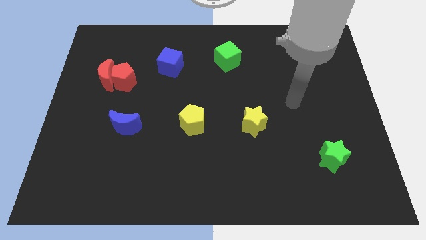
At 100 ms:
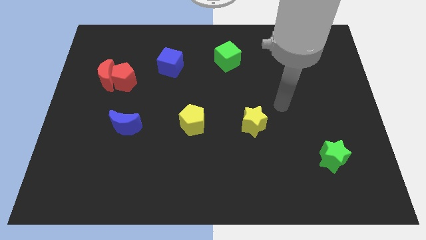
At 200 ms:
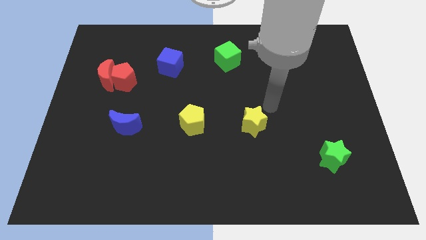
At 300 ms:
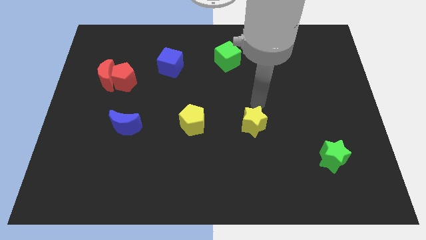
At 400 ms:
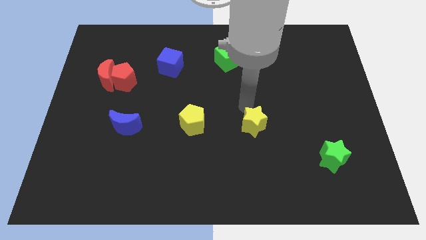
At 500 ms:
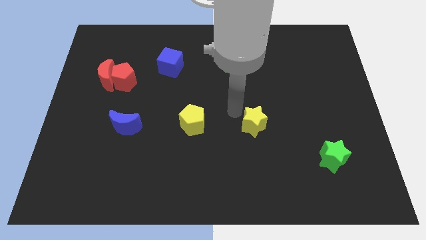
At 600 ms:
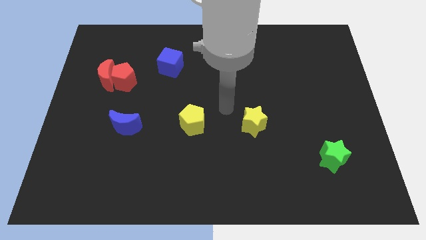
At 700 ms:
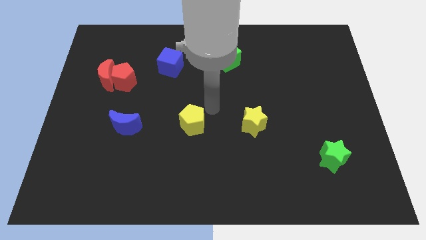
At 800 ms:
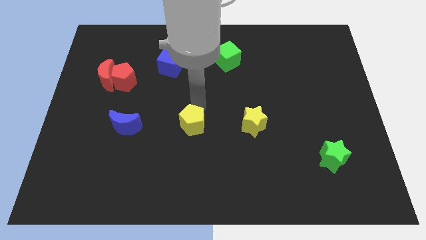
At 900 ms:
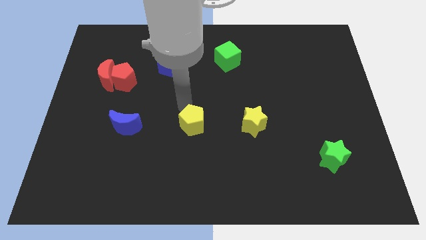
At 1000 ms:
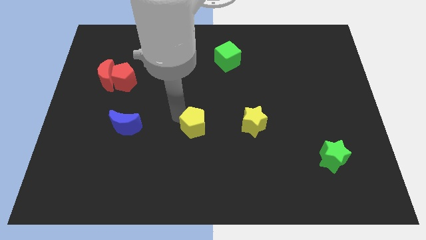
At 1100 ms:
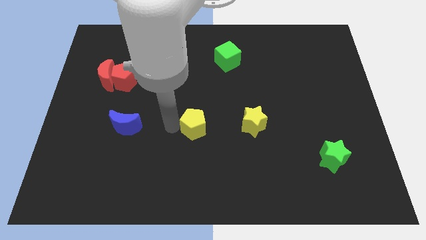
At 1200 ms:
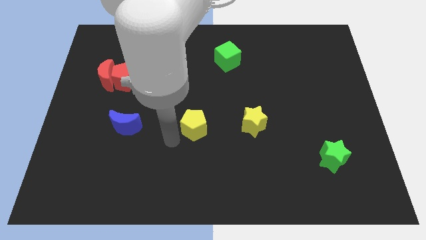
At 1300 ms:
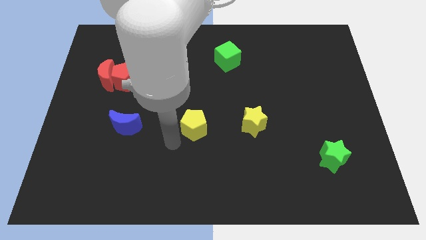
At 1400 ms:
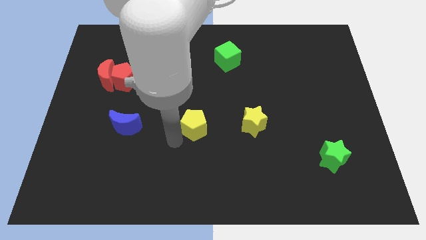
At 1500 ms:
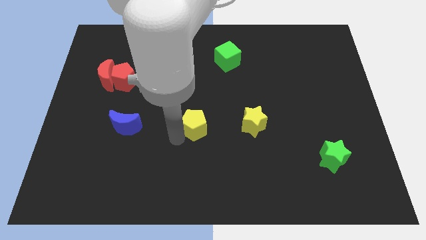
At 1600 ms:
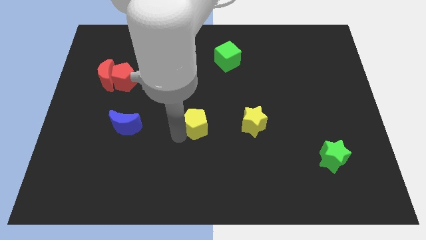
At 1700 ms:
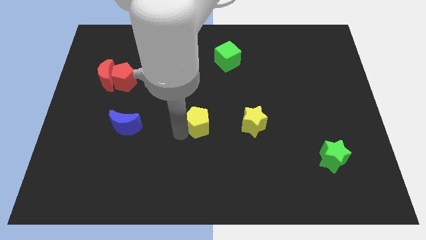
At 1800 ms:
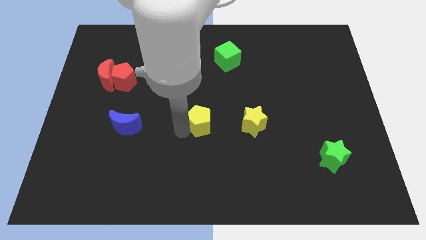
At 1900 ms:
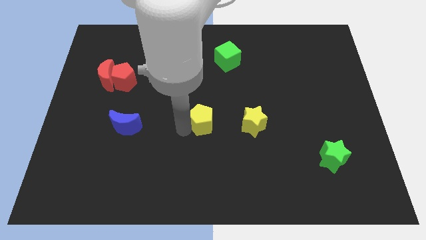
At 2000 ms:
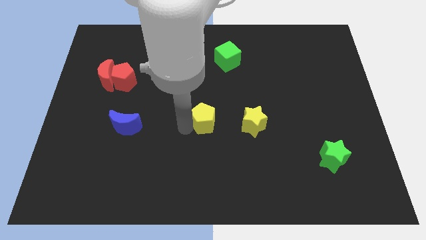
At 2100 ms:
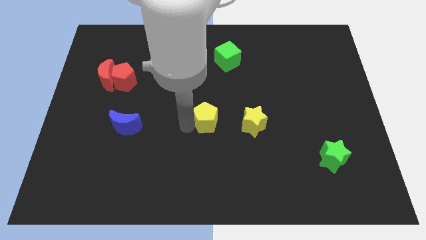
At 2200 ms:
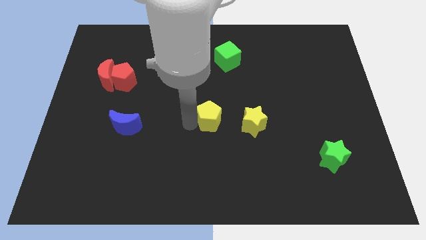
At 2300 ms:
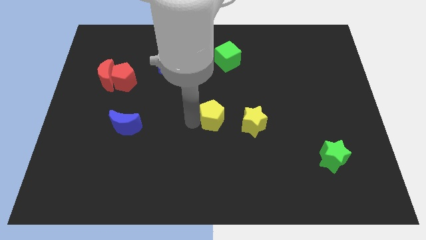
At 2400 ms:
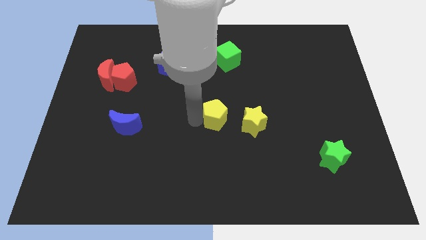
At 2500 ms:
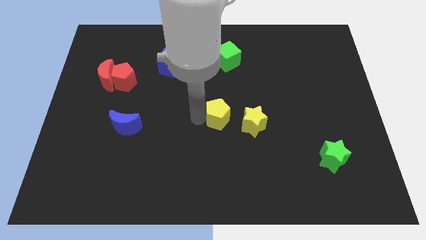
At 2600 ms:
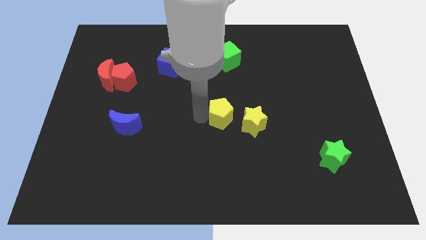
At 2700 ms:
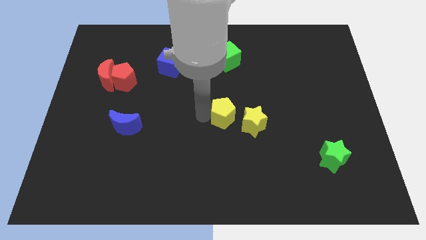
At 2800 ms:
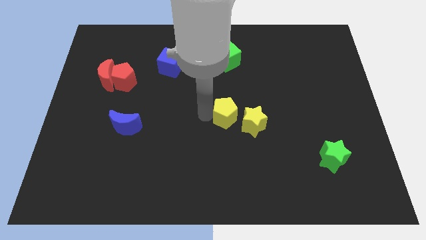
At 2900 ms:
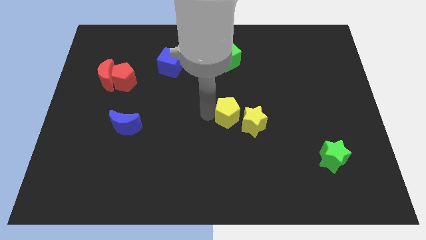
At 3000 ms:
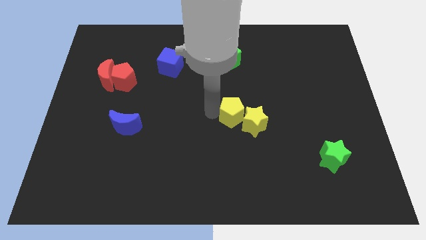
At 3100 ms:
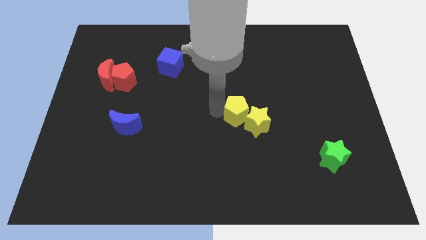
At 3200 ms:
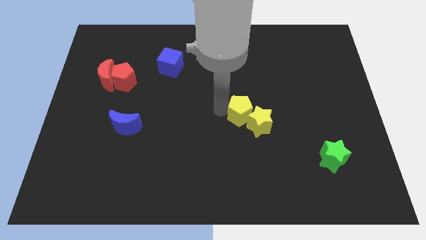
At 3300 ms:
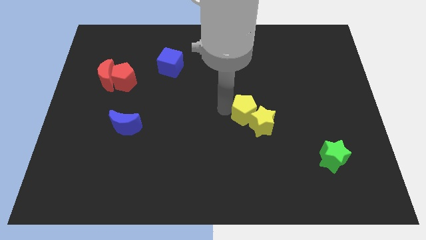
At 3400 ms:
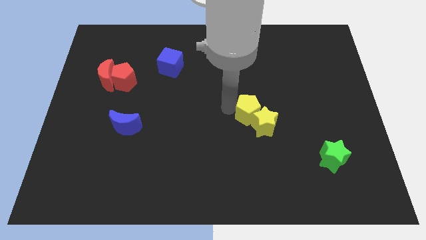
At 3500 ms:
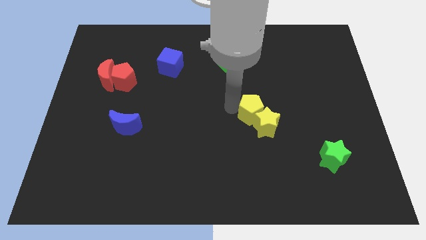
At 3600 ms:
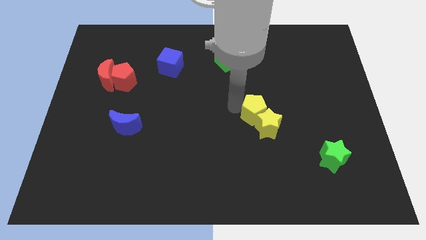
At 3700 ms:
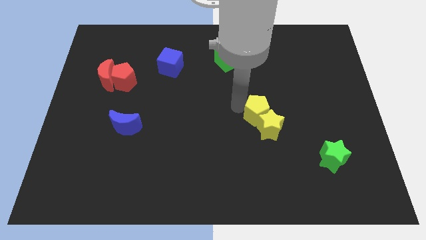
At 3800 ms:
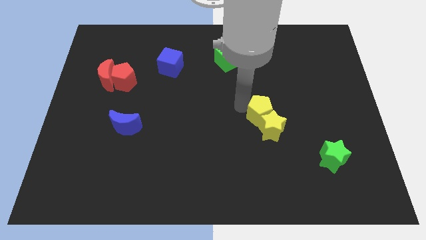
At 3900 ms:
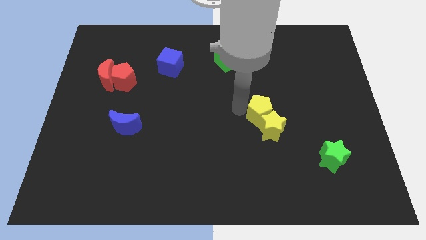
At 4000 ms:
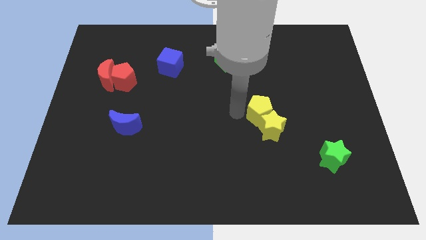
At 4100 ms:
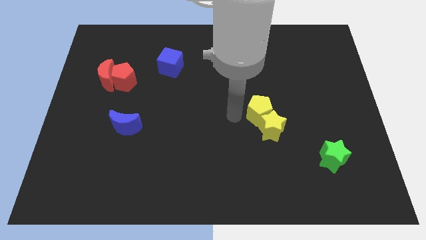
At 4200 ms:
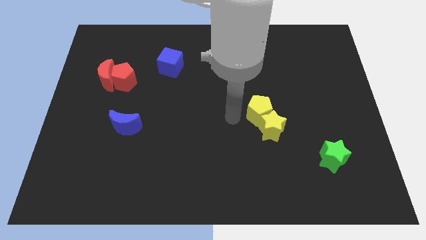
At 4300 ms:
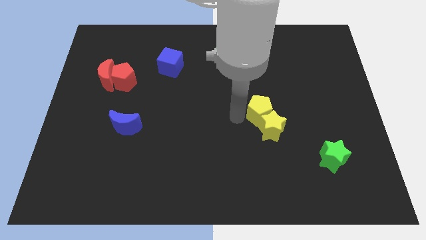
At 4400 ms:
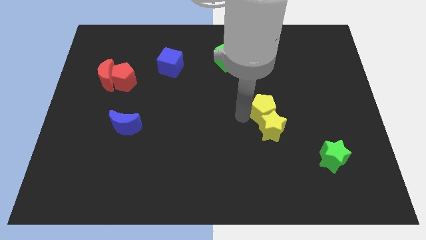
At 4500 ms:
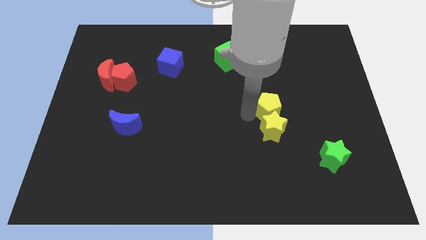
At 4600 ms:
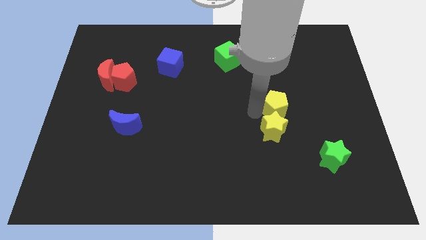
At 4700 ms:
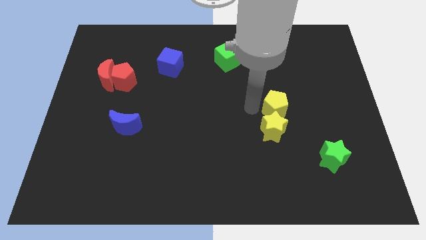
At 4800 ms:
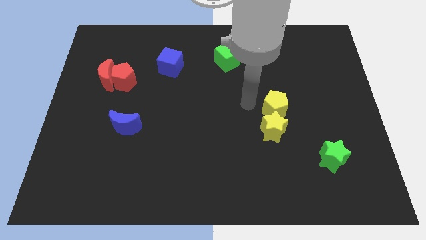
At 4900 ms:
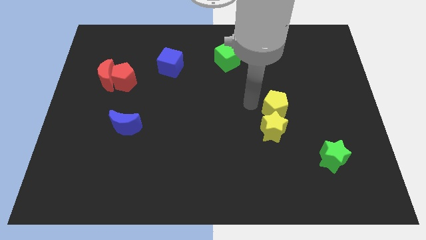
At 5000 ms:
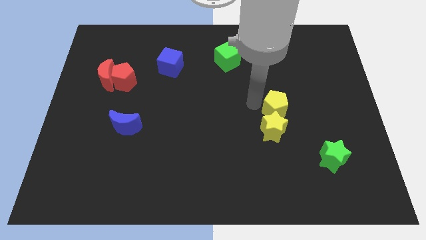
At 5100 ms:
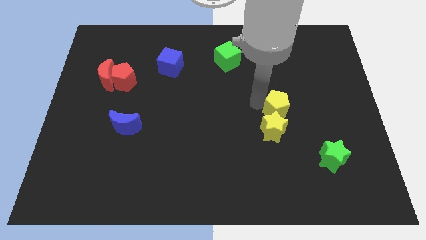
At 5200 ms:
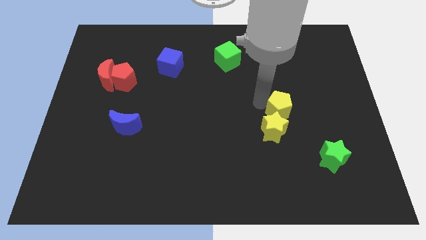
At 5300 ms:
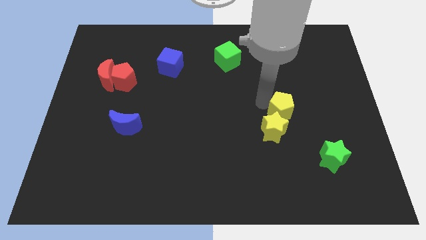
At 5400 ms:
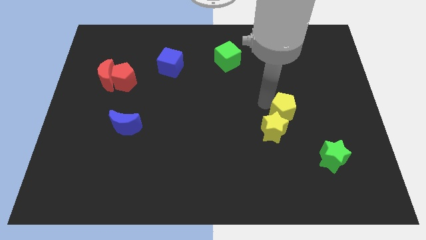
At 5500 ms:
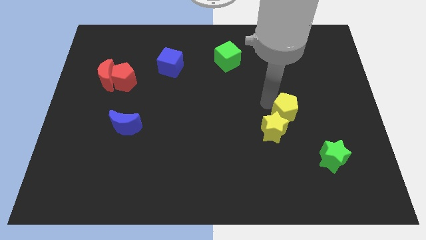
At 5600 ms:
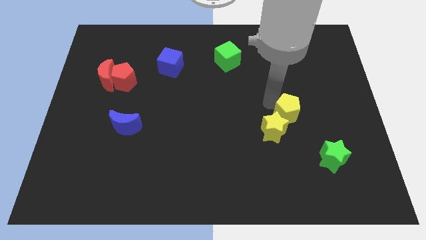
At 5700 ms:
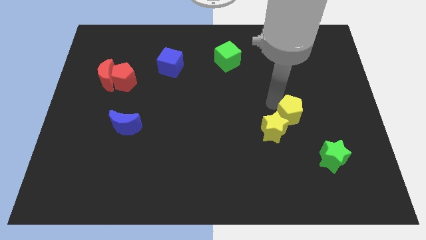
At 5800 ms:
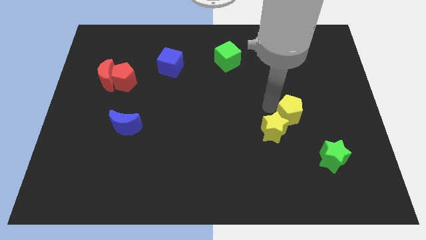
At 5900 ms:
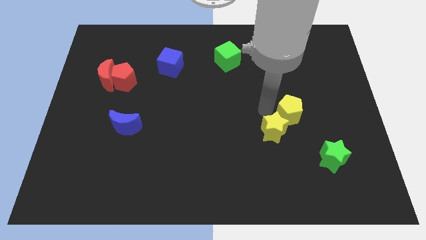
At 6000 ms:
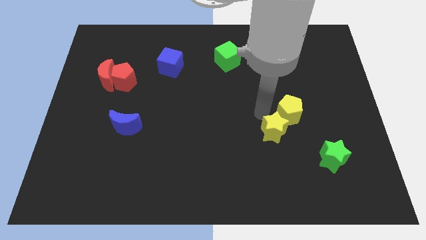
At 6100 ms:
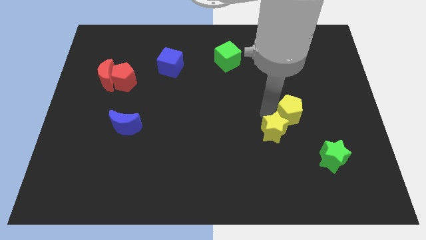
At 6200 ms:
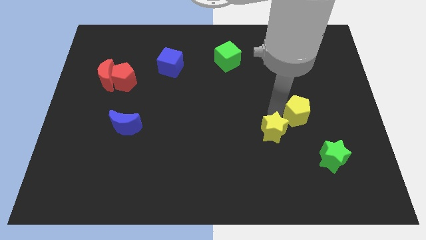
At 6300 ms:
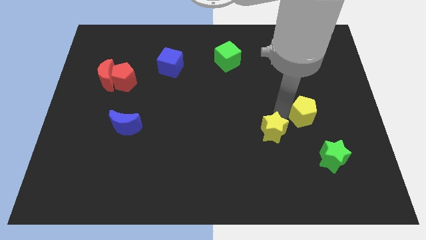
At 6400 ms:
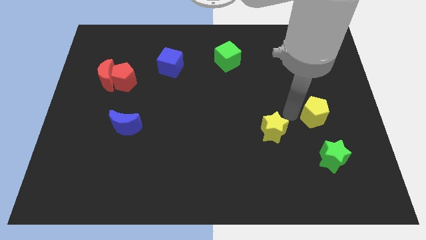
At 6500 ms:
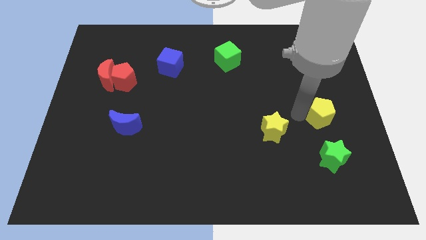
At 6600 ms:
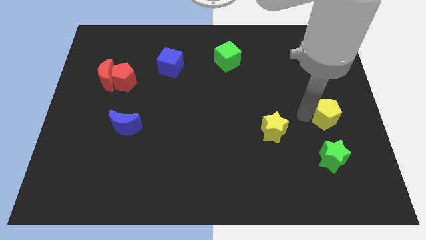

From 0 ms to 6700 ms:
slide the yellow pentagon to the right side

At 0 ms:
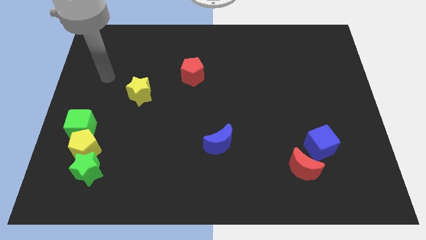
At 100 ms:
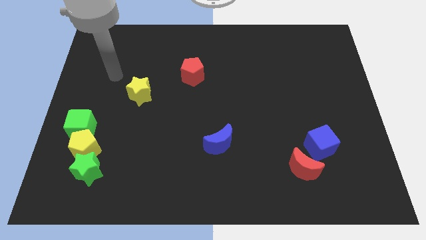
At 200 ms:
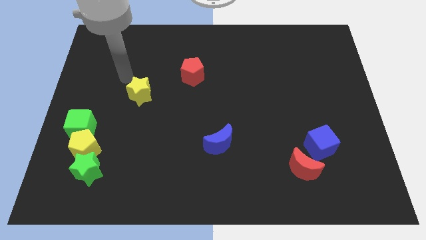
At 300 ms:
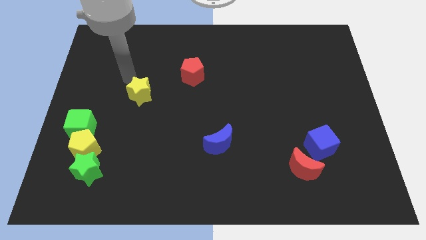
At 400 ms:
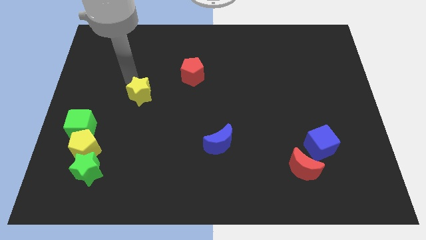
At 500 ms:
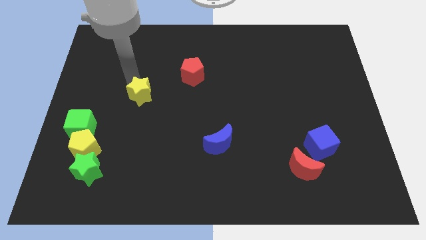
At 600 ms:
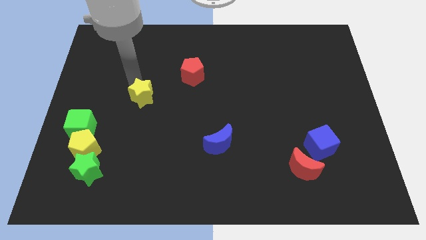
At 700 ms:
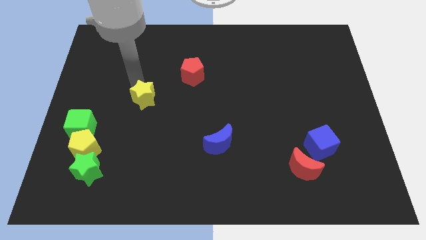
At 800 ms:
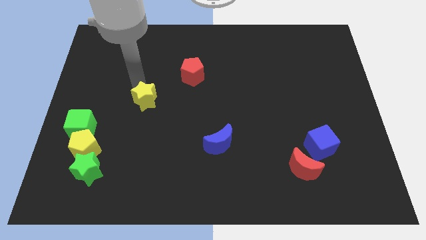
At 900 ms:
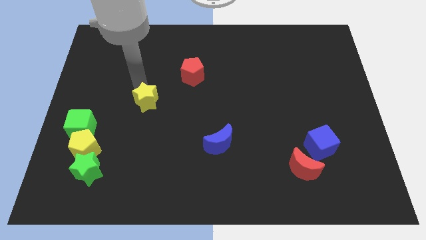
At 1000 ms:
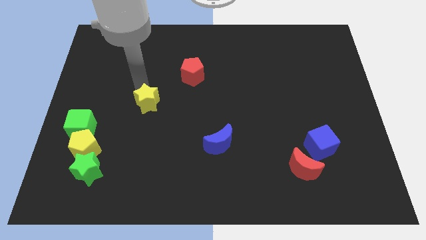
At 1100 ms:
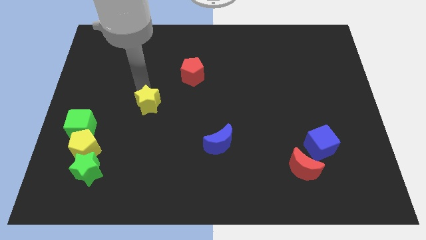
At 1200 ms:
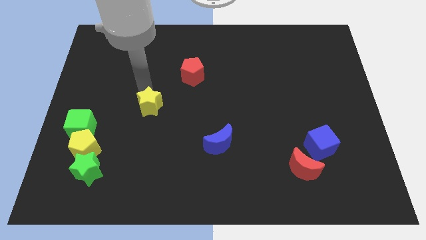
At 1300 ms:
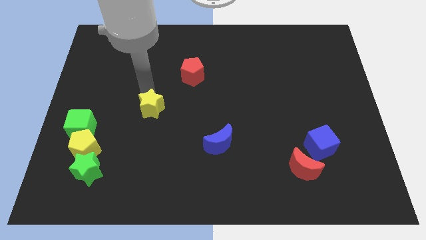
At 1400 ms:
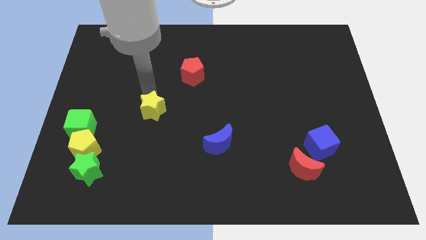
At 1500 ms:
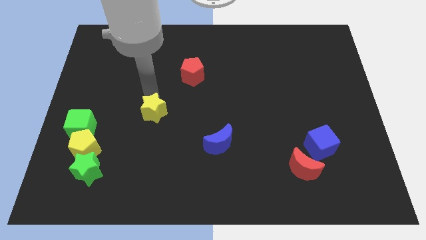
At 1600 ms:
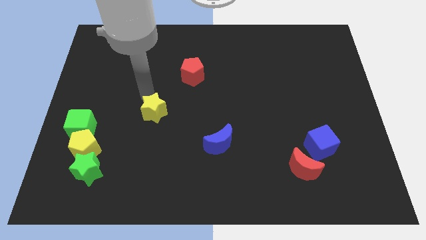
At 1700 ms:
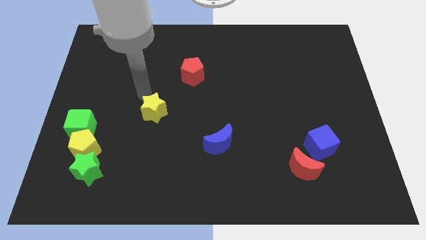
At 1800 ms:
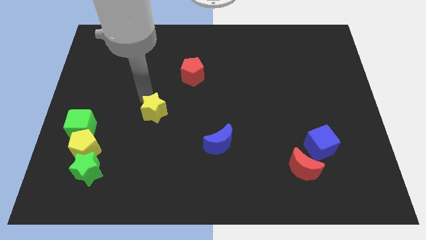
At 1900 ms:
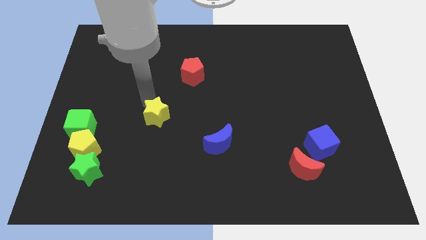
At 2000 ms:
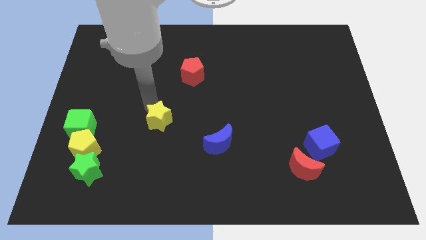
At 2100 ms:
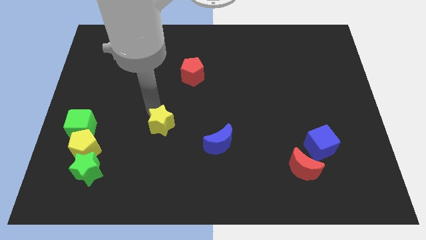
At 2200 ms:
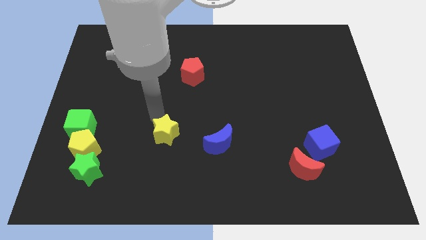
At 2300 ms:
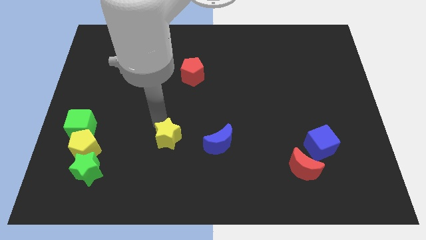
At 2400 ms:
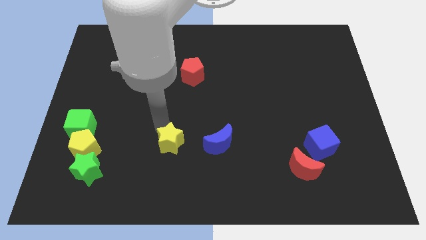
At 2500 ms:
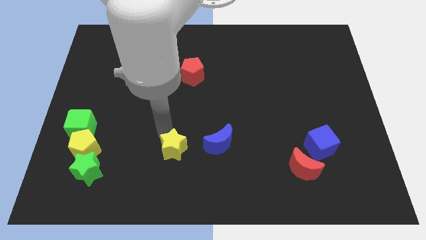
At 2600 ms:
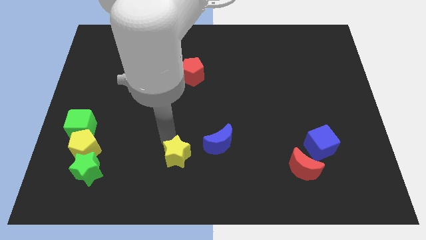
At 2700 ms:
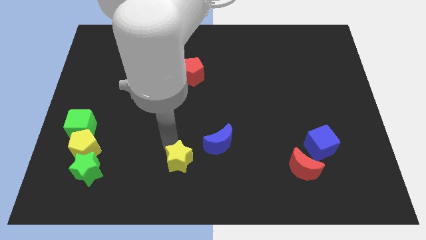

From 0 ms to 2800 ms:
slide the yellow star to the bottom
